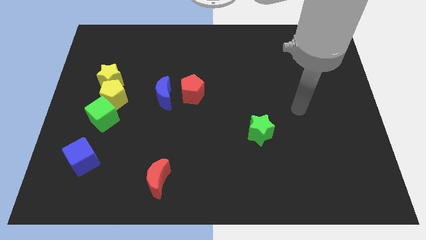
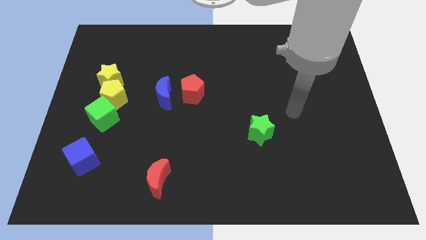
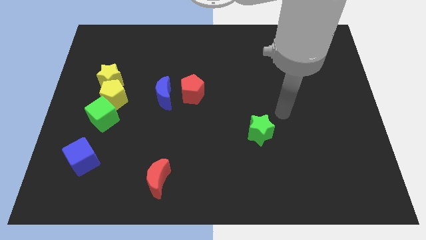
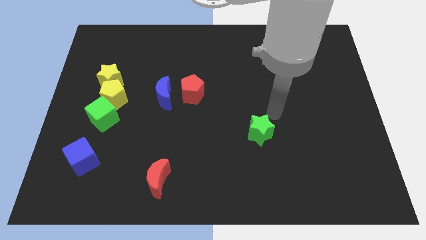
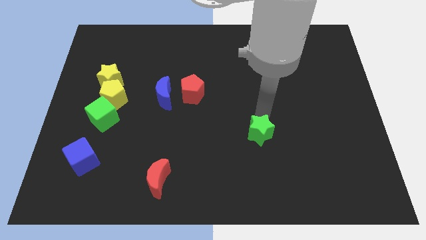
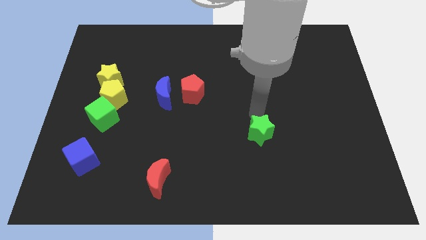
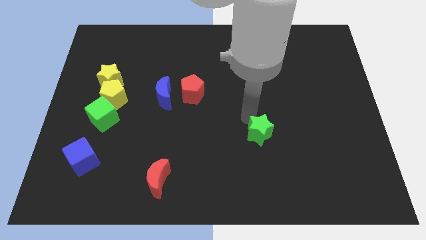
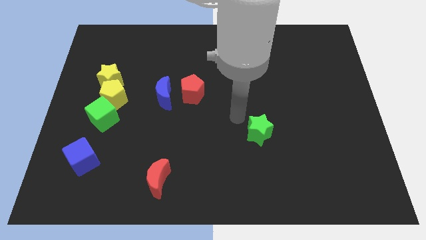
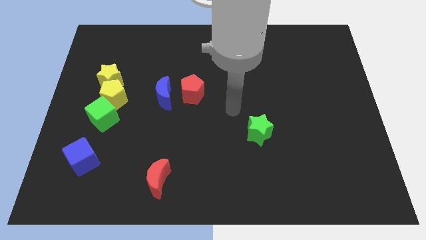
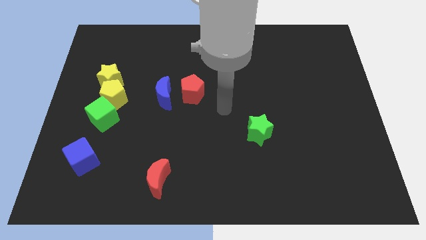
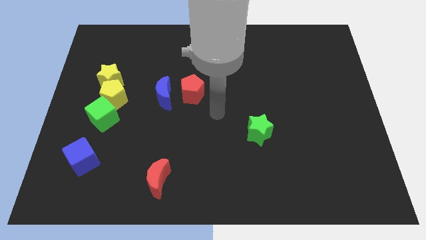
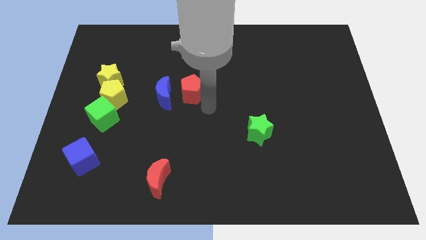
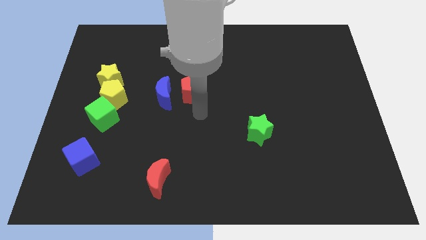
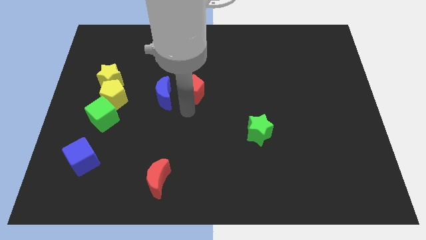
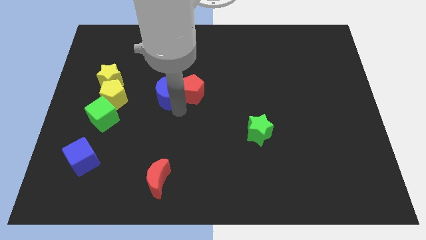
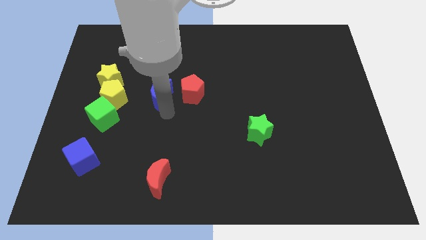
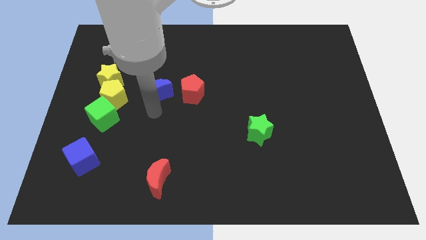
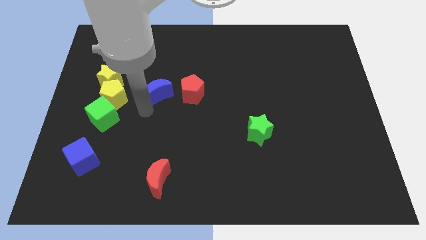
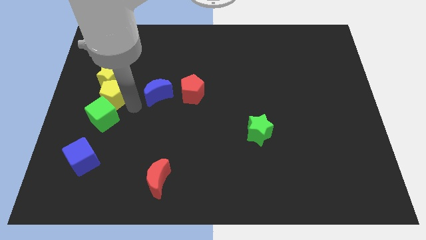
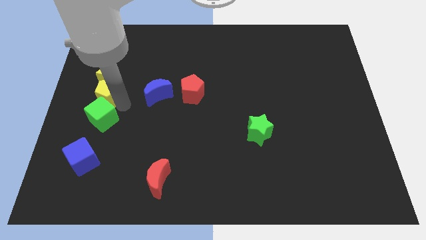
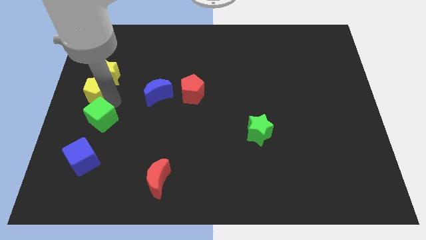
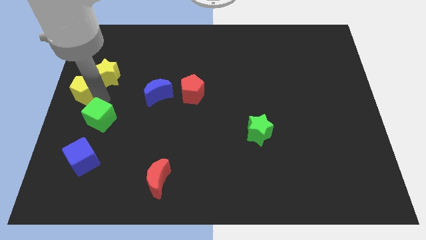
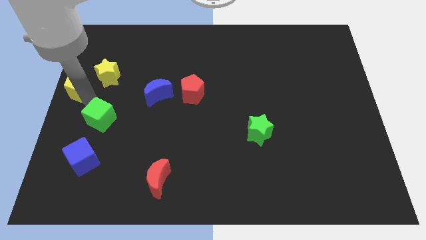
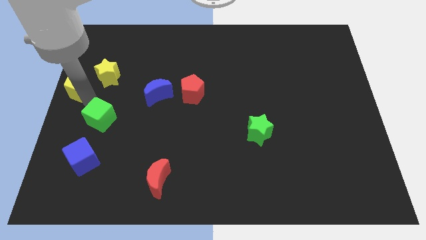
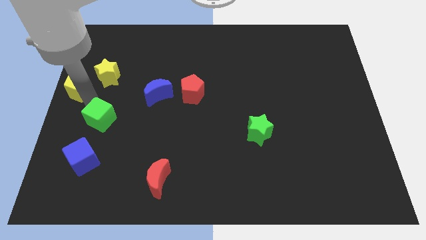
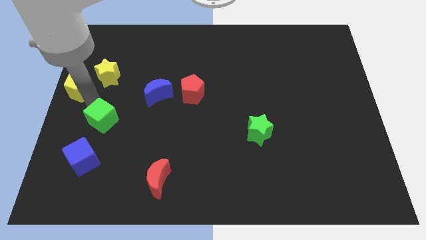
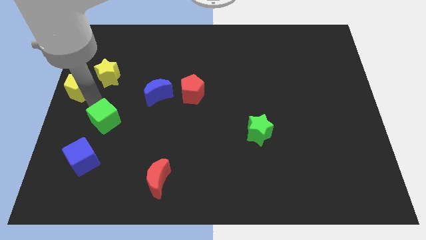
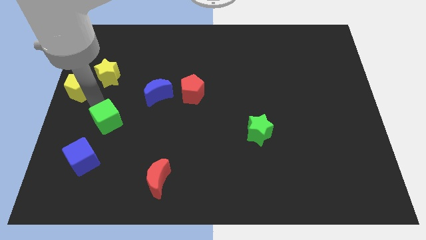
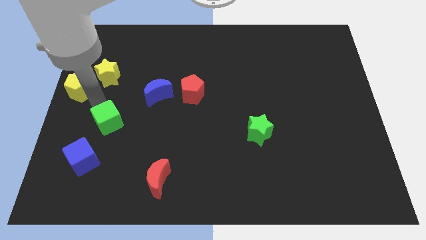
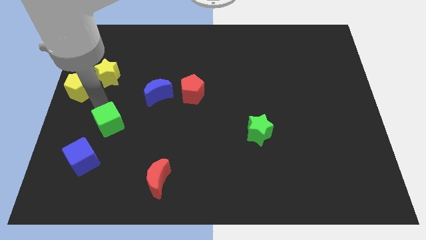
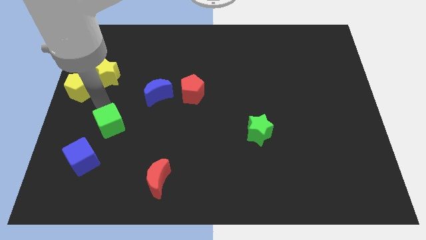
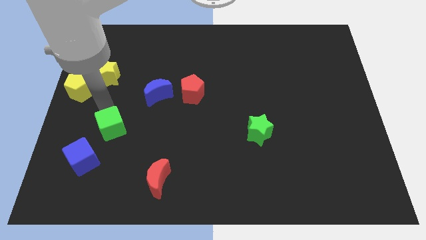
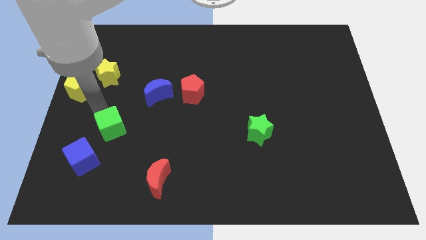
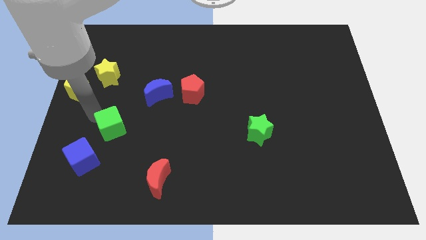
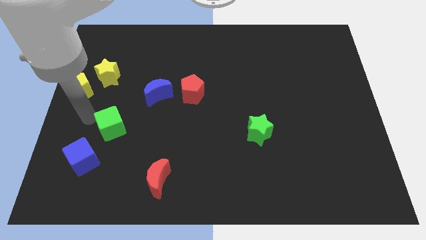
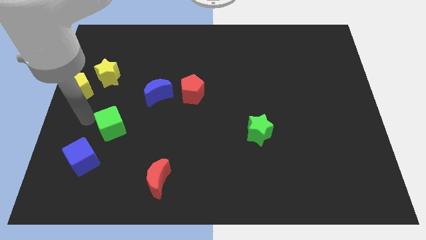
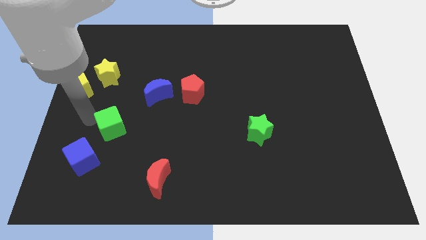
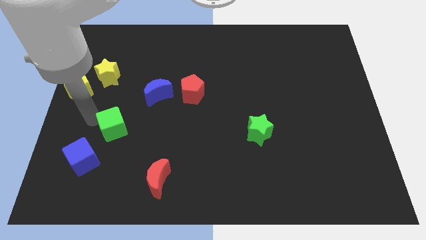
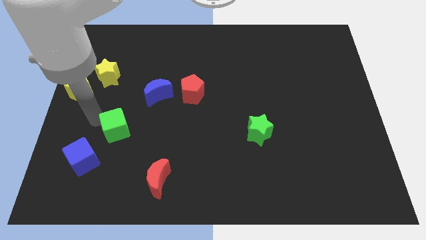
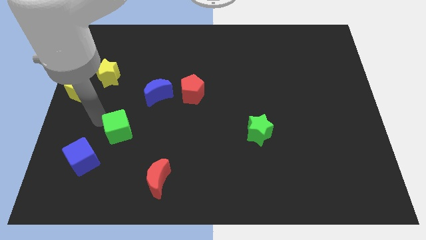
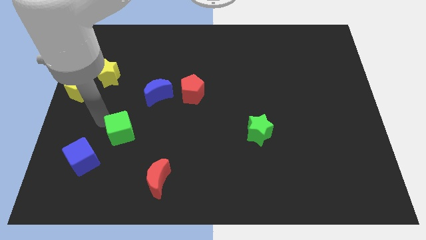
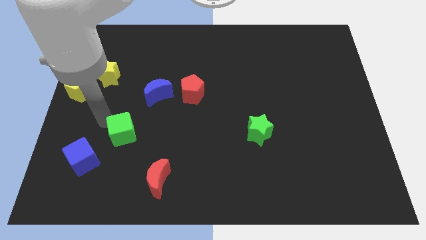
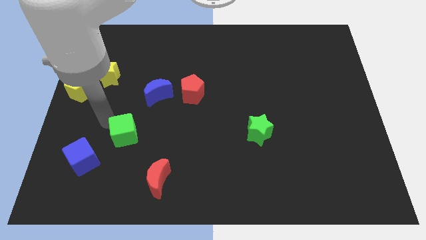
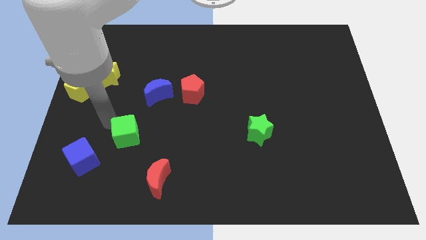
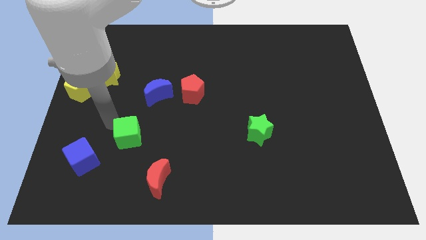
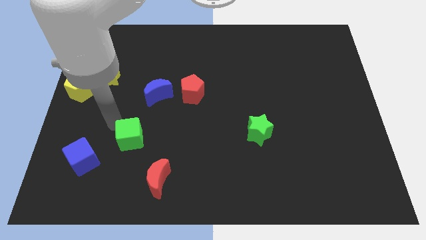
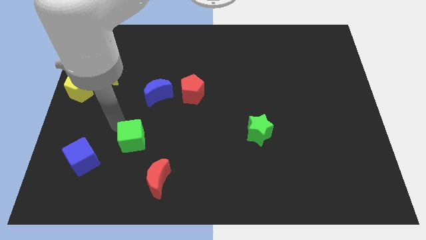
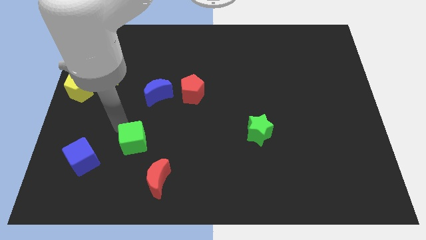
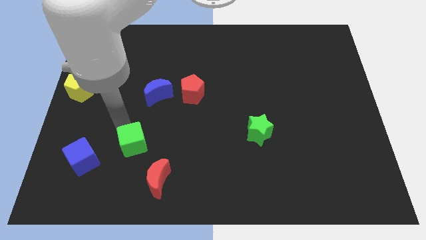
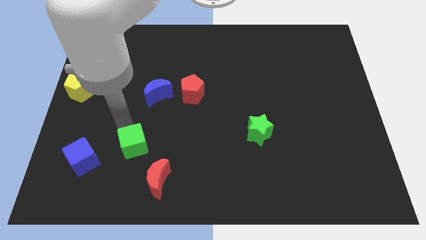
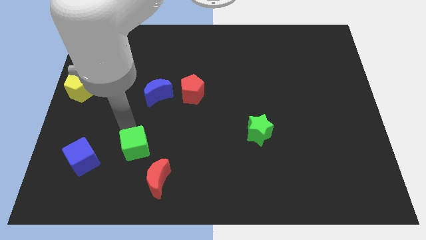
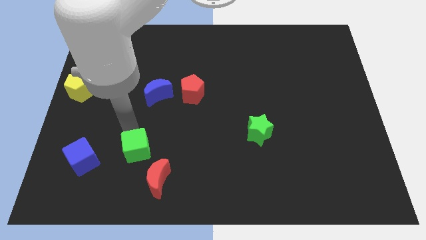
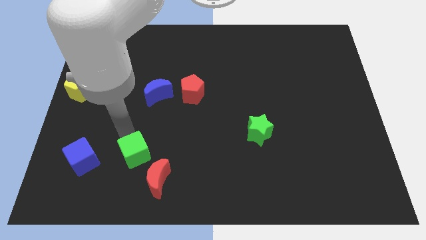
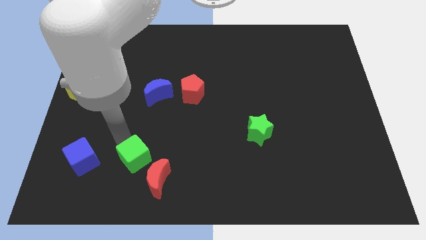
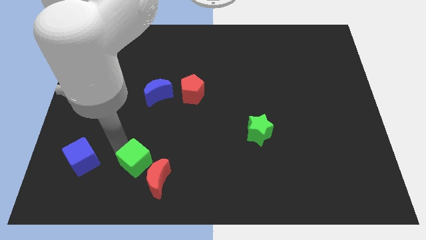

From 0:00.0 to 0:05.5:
put the green cube above the red moon

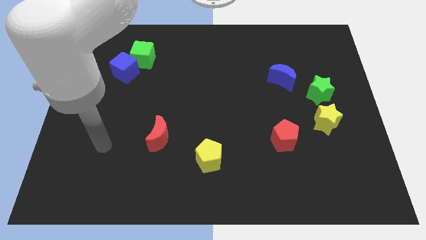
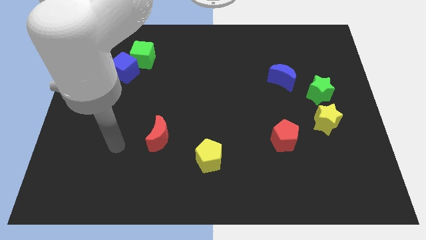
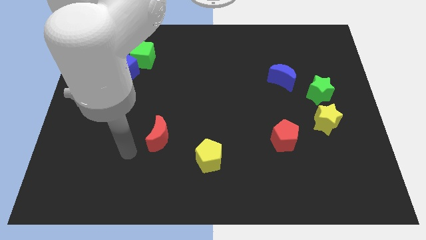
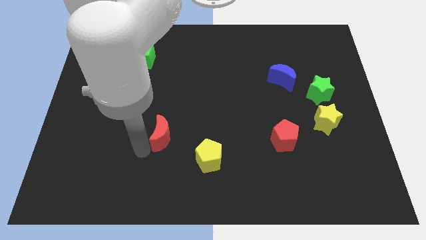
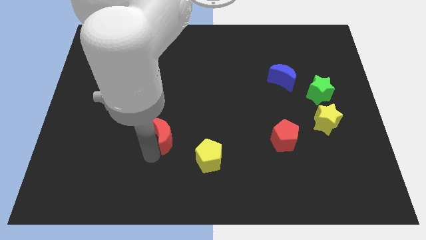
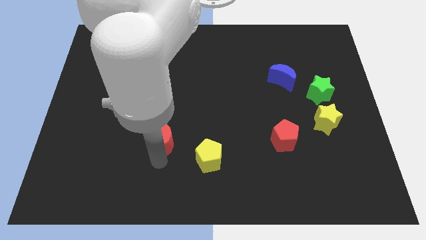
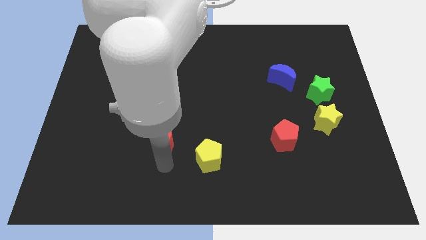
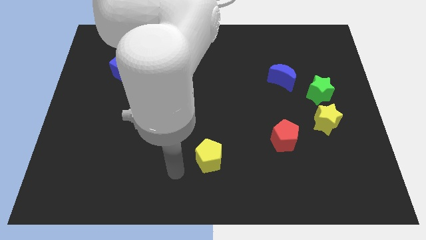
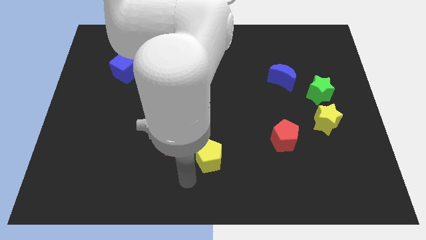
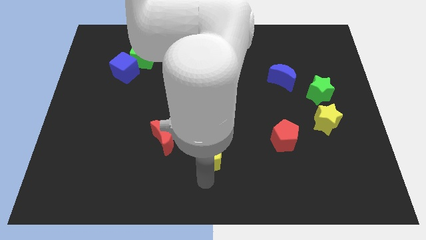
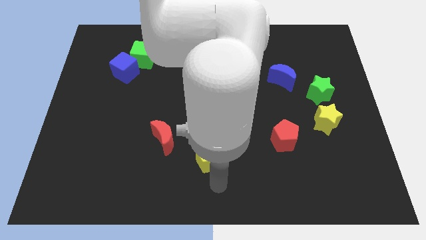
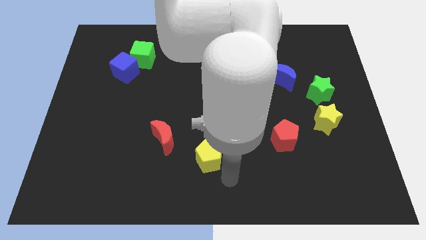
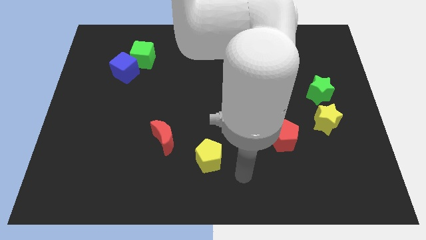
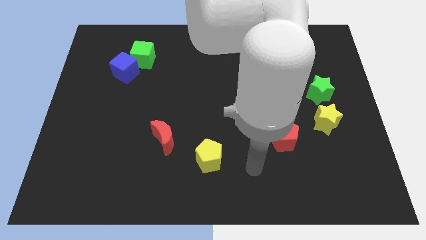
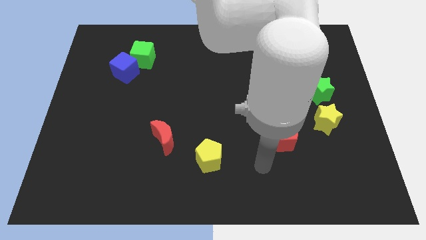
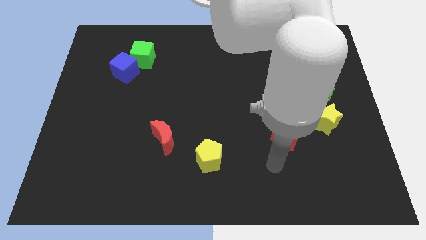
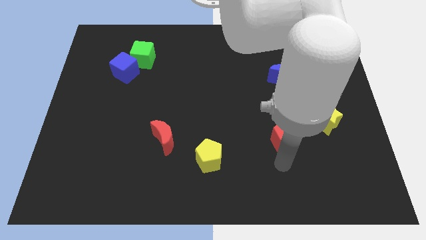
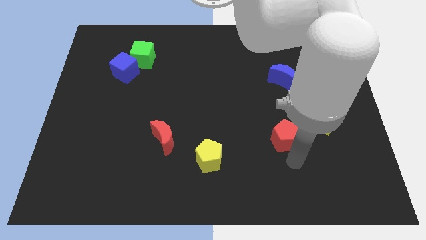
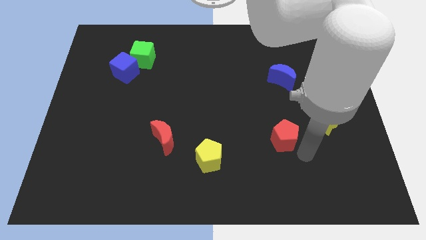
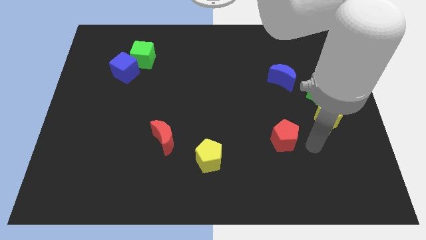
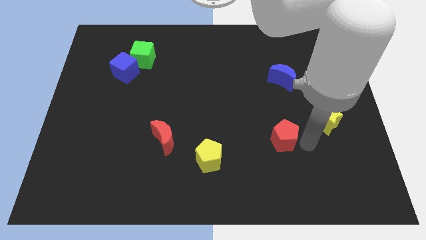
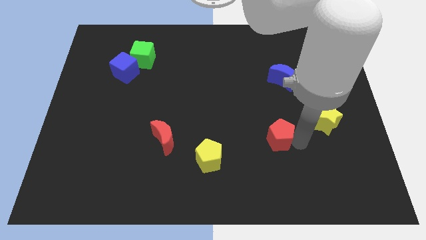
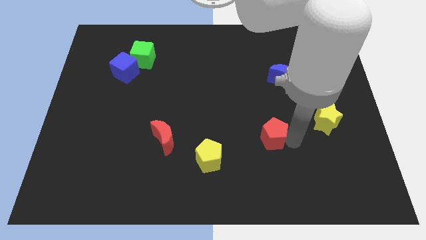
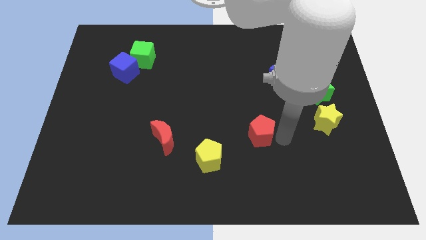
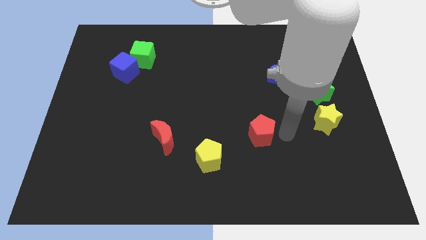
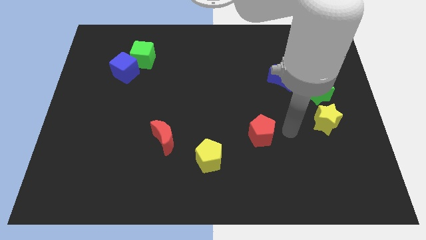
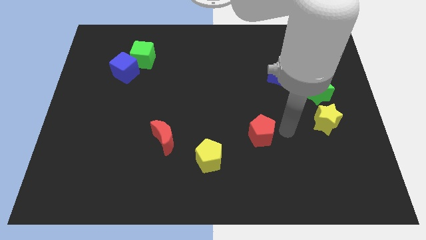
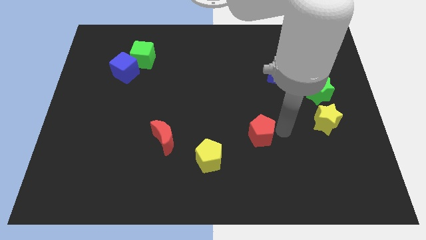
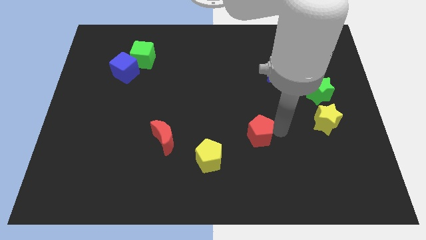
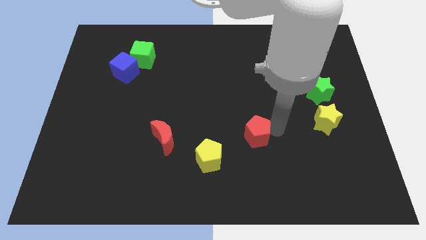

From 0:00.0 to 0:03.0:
slide the red pentagon to the top right side of the yellow pentagon
